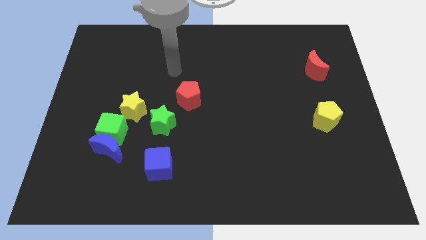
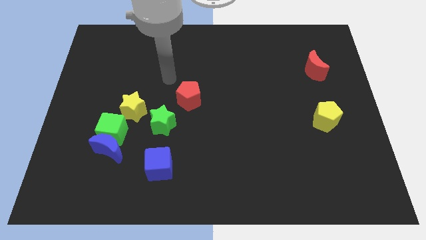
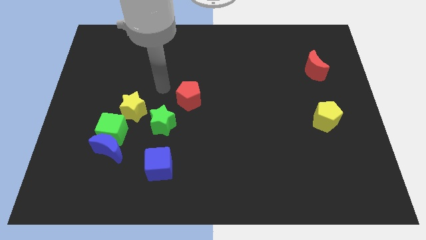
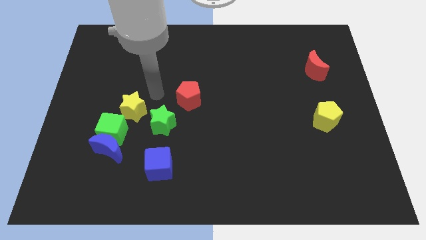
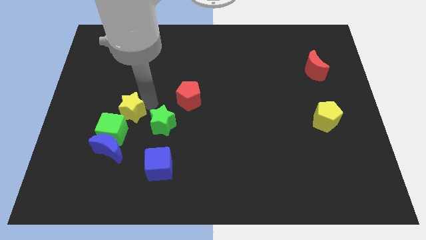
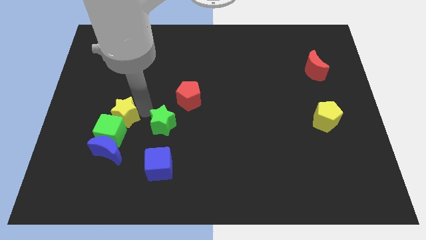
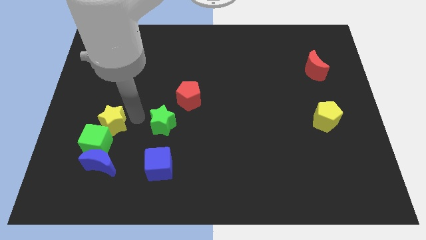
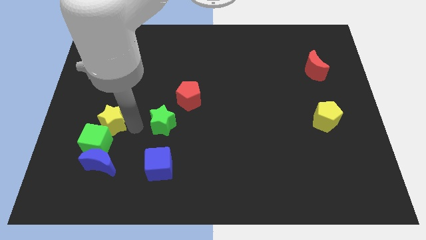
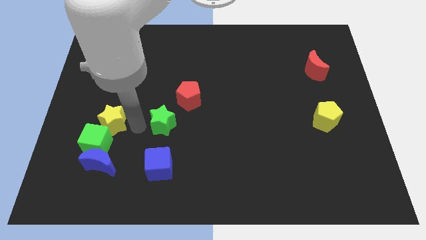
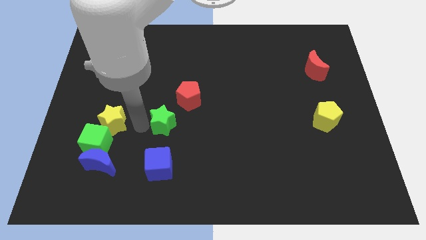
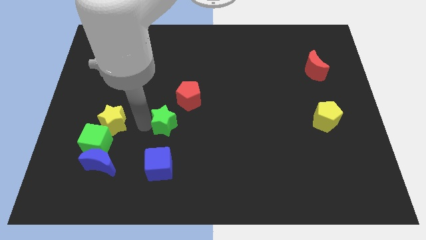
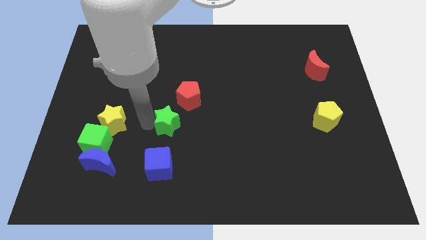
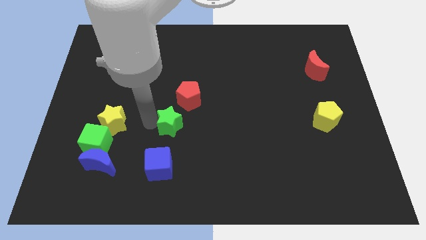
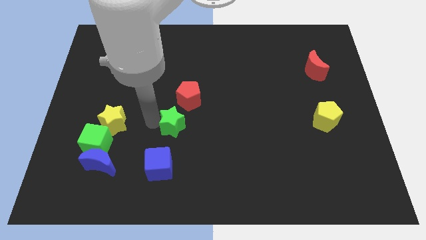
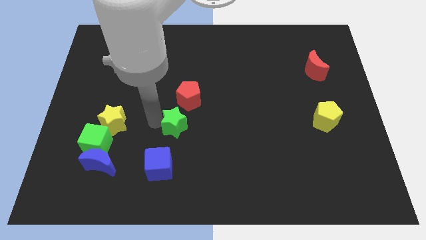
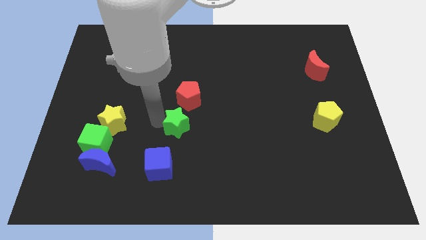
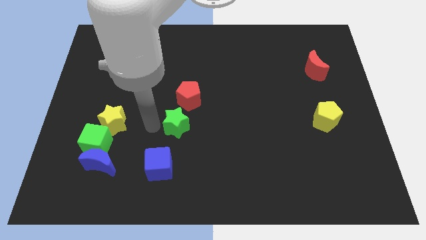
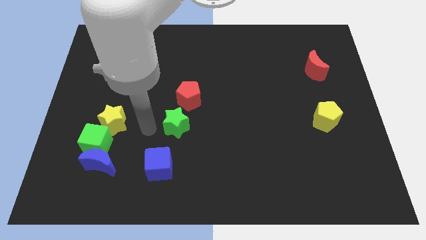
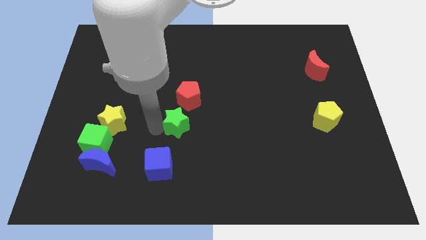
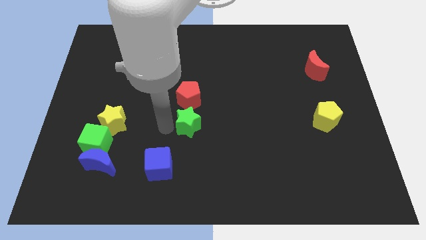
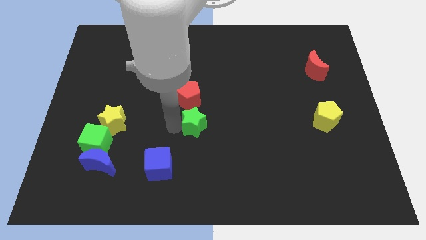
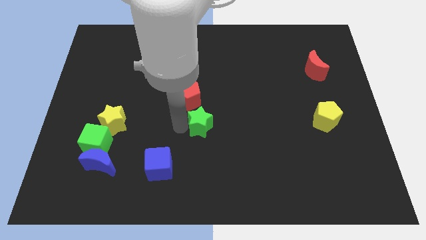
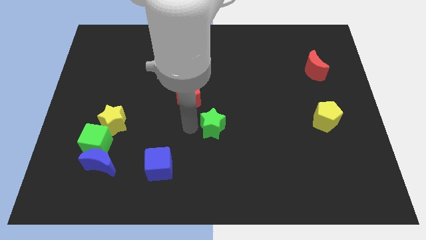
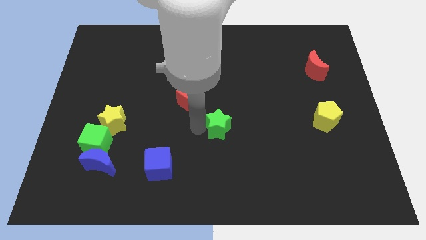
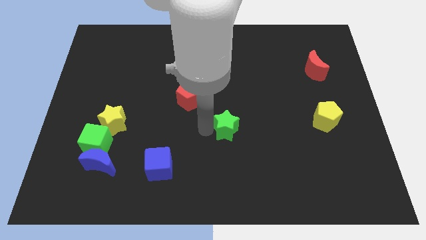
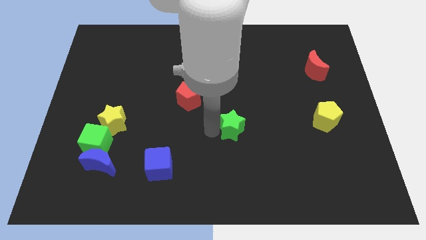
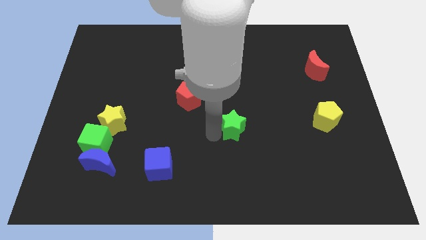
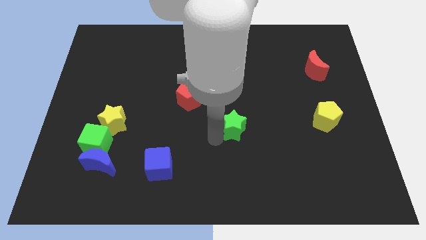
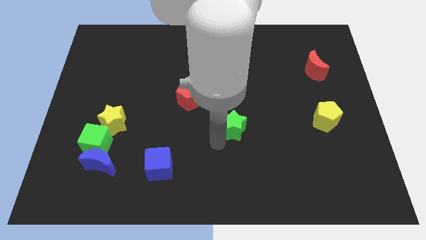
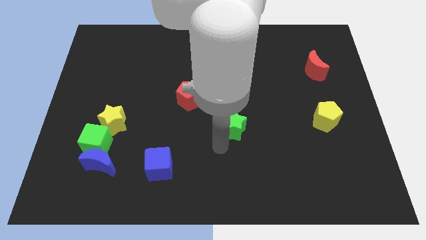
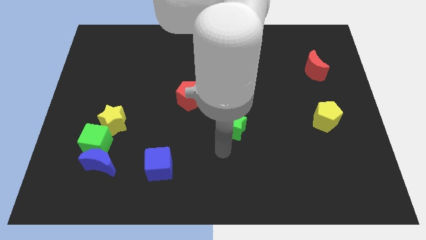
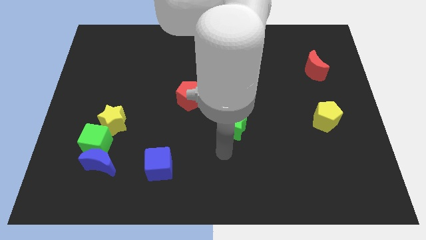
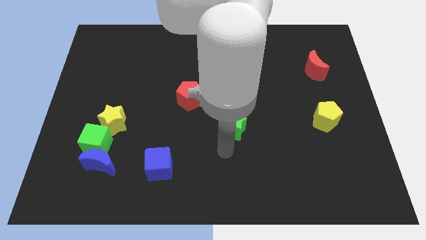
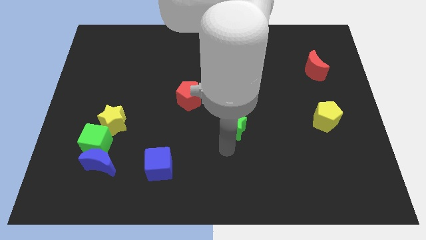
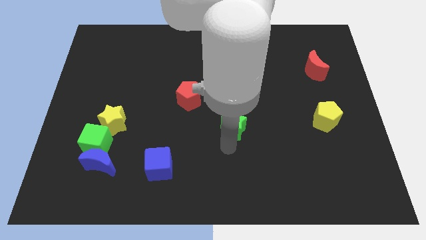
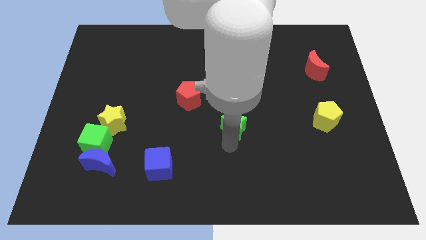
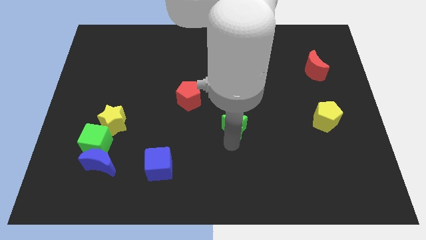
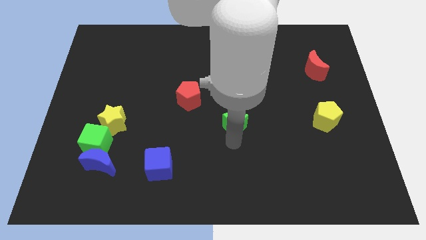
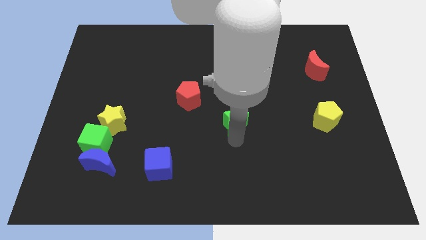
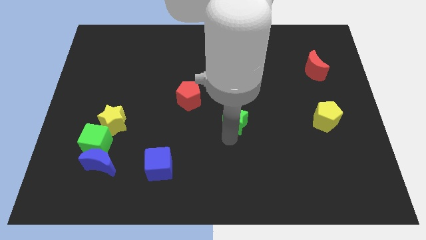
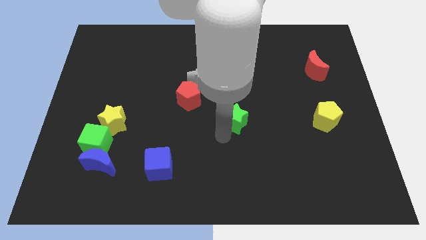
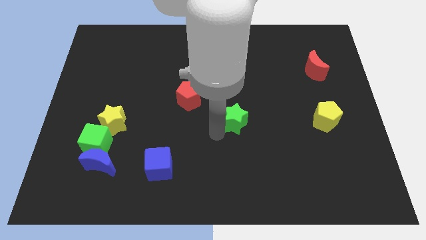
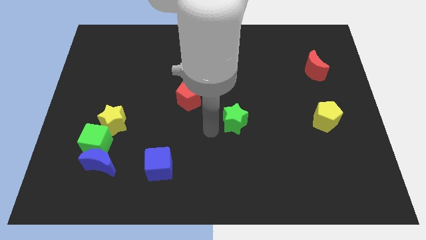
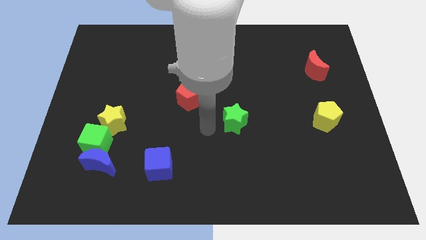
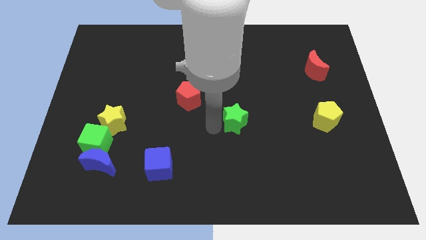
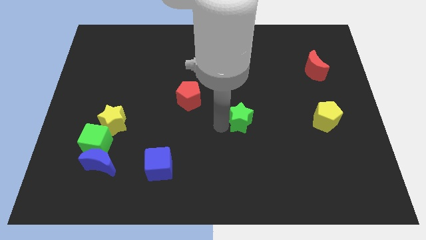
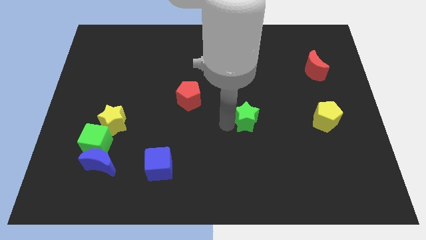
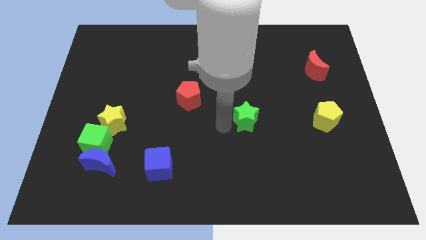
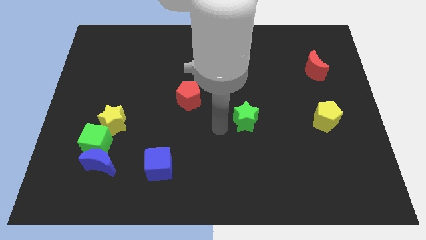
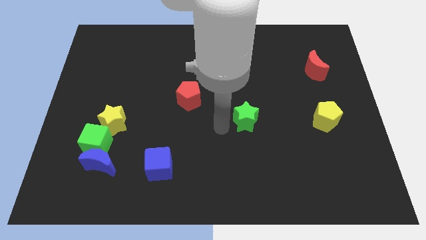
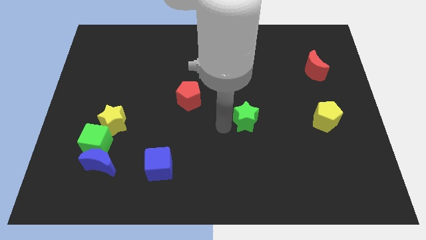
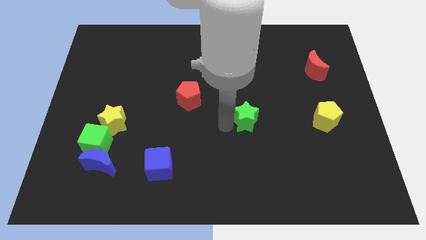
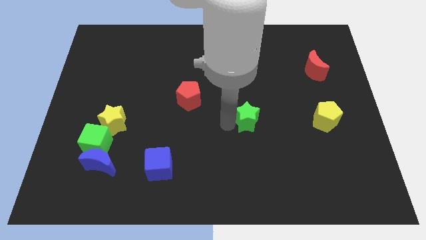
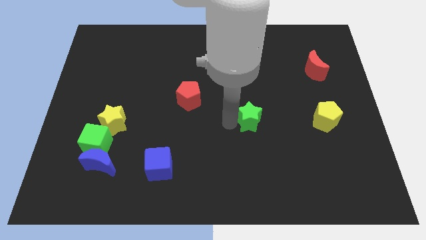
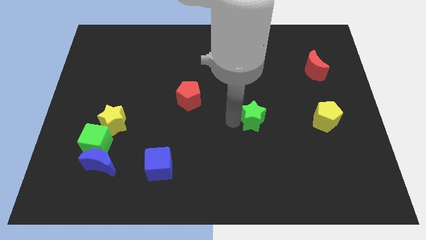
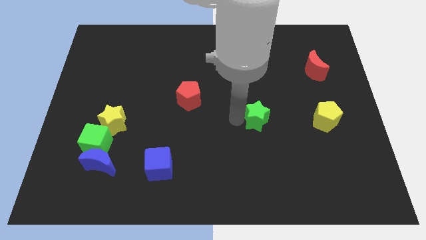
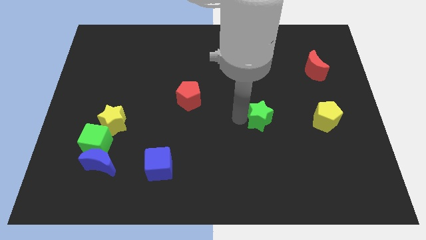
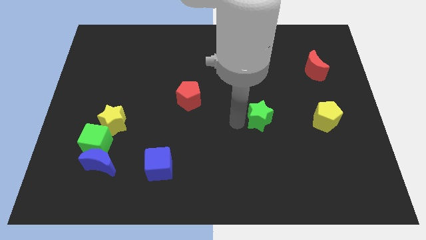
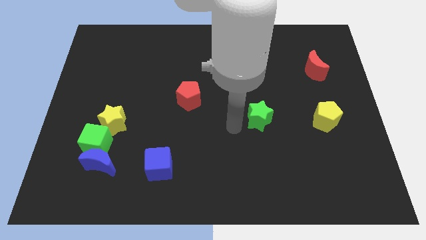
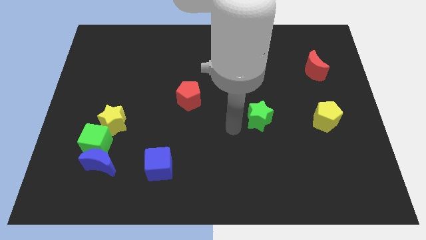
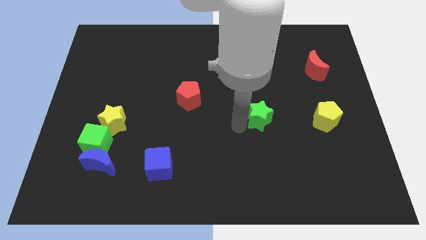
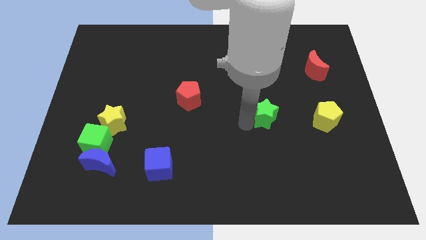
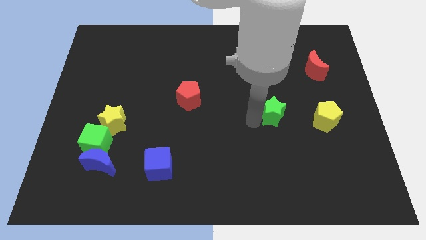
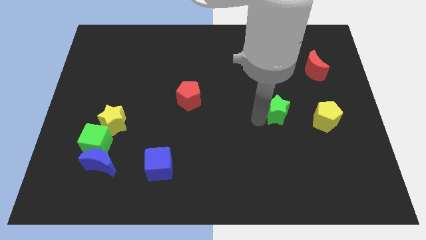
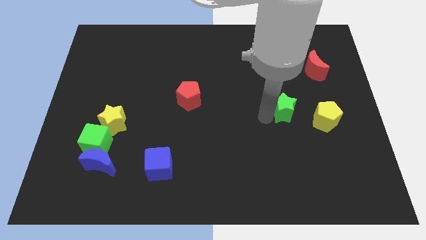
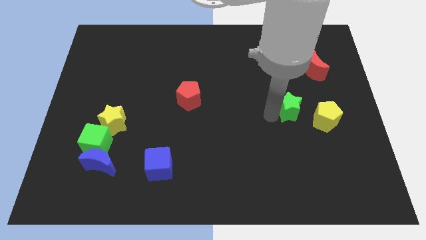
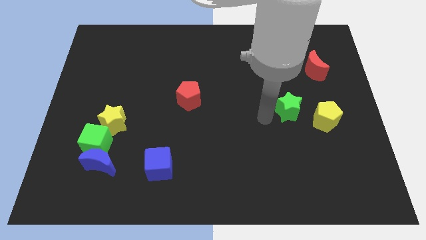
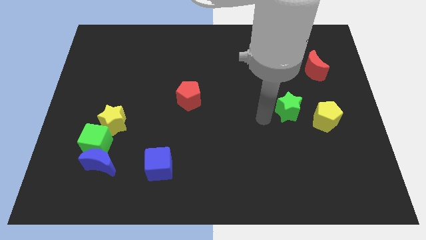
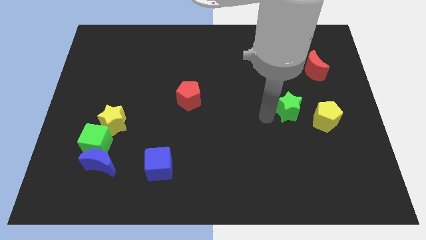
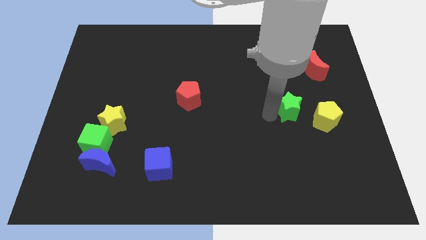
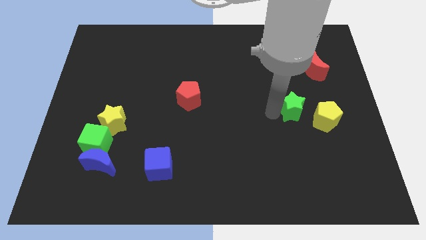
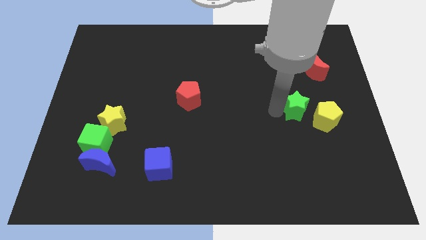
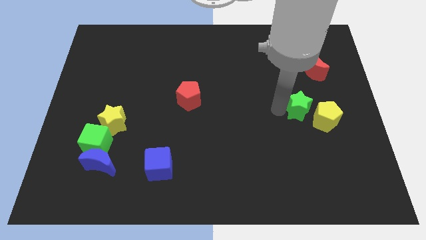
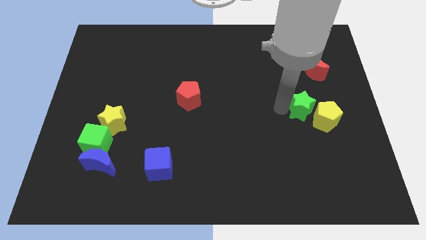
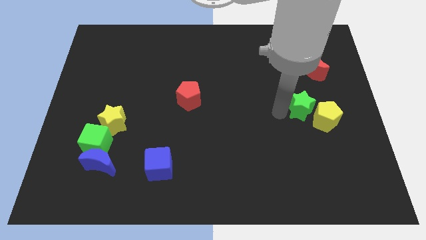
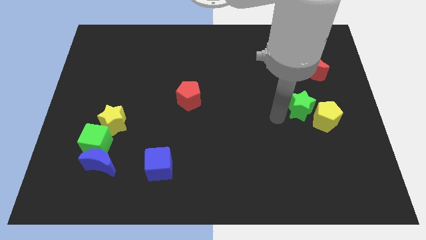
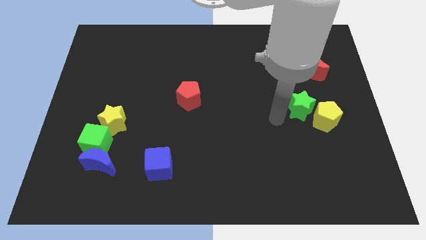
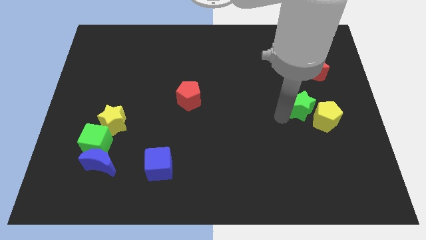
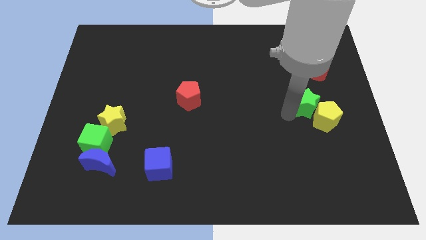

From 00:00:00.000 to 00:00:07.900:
put the green star below the red moon

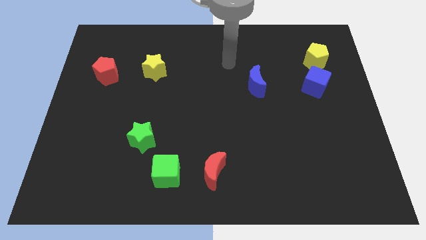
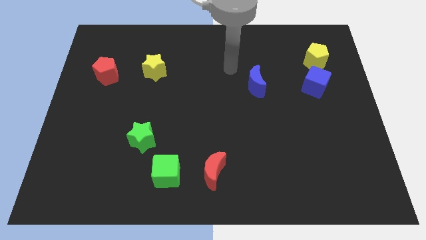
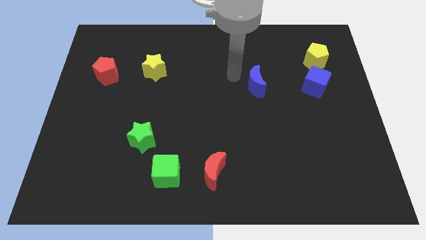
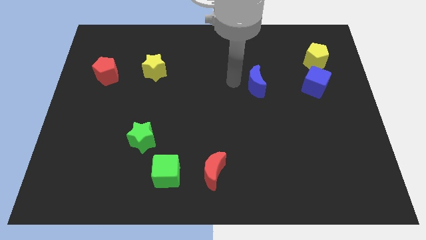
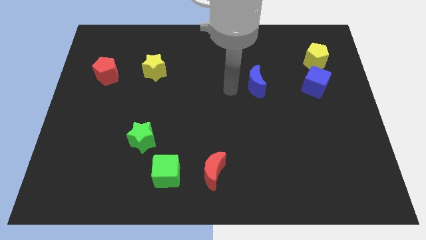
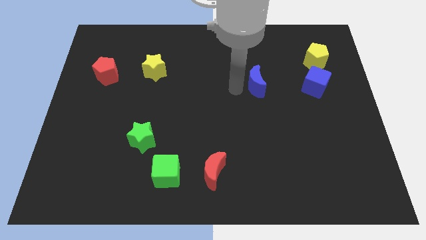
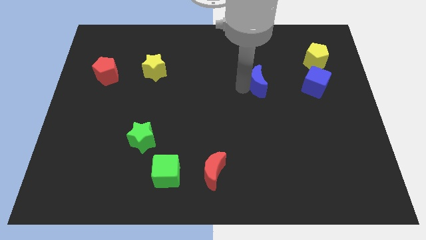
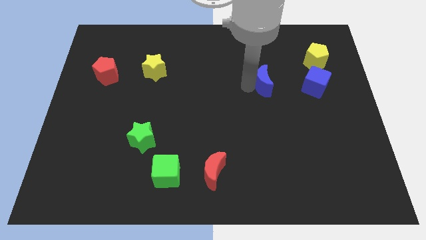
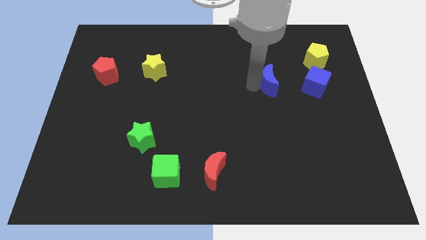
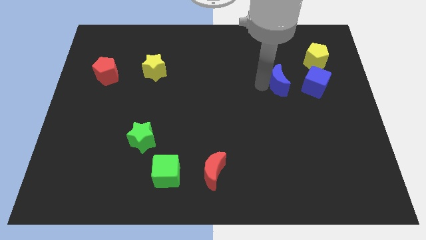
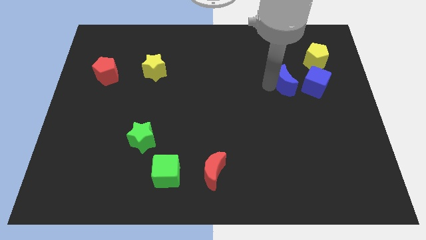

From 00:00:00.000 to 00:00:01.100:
slide the blue moon to the bottom left side of the yellow pentagon
